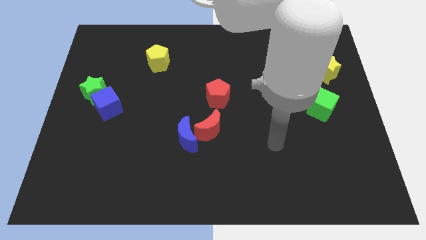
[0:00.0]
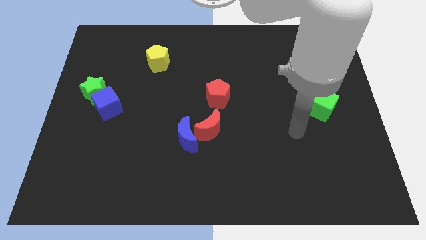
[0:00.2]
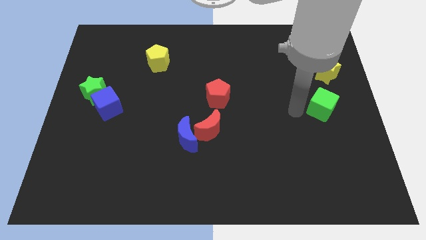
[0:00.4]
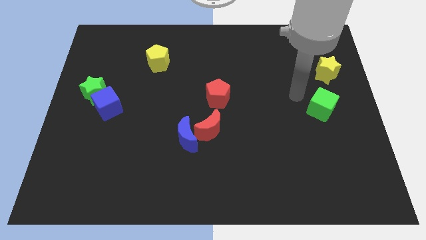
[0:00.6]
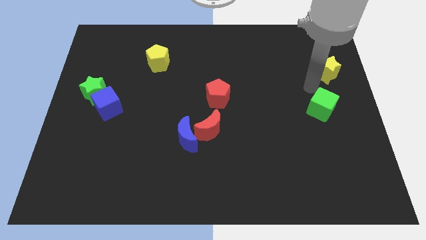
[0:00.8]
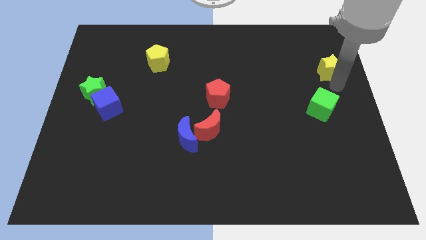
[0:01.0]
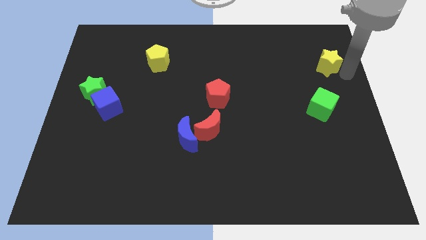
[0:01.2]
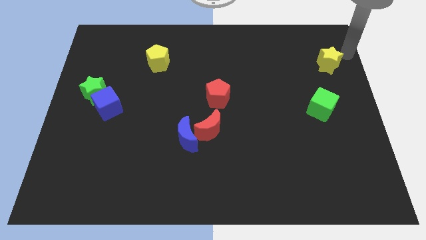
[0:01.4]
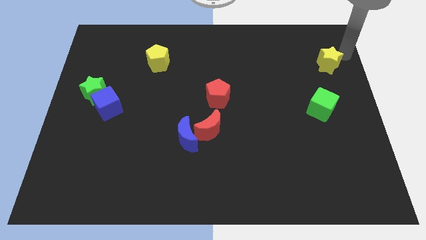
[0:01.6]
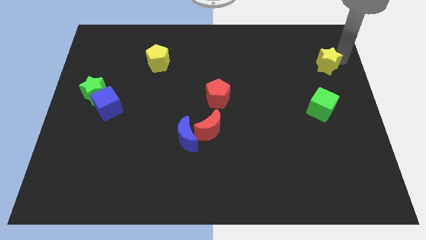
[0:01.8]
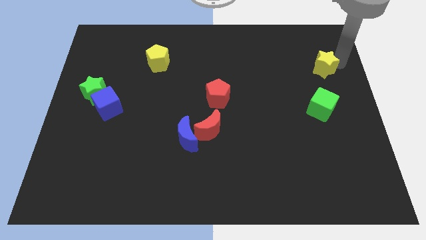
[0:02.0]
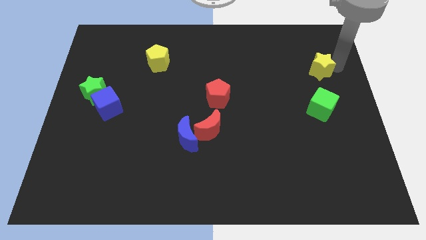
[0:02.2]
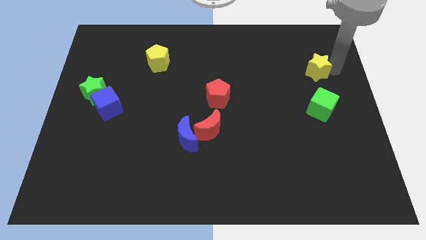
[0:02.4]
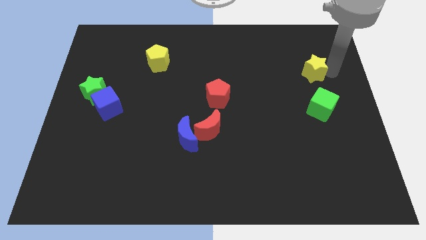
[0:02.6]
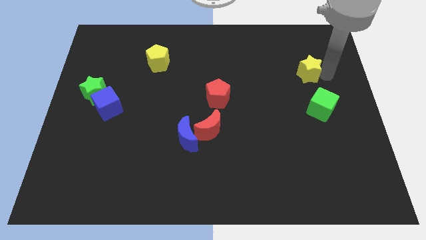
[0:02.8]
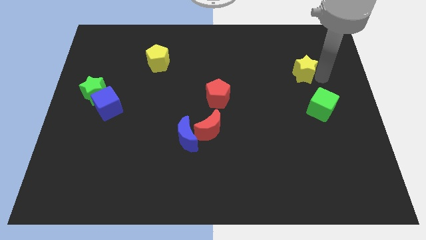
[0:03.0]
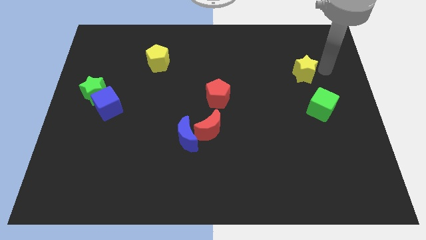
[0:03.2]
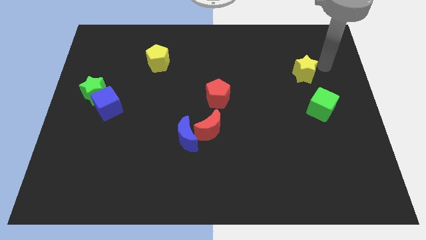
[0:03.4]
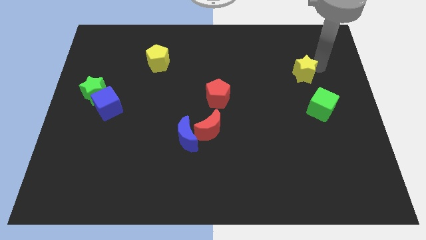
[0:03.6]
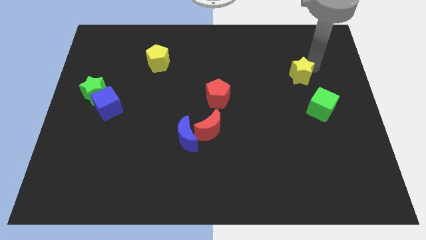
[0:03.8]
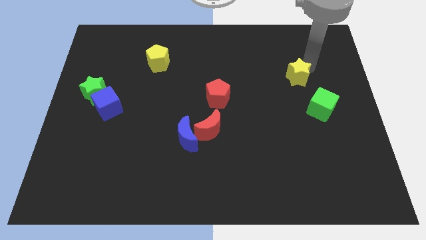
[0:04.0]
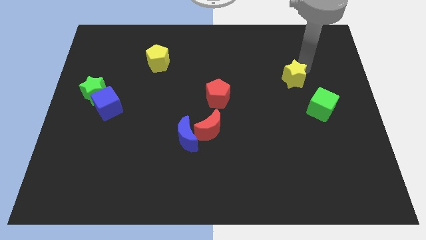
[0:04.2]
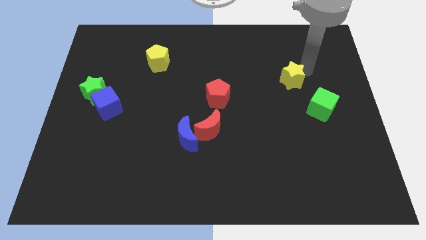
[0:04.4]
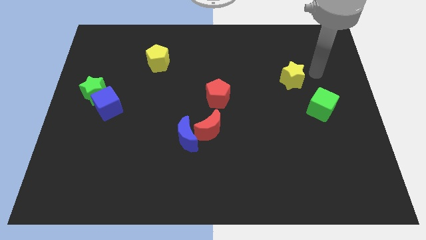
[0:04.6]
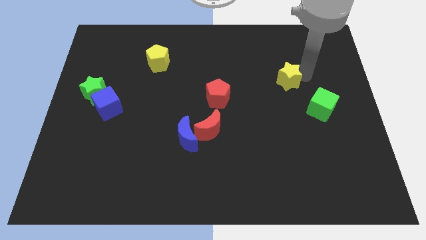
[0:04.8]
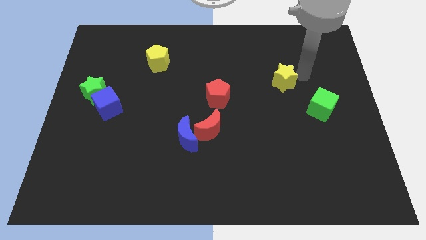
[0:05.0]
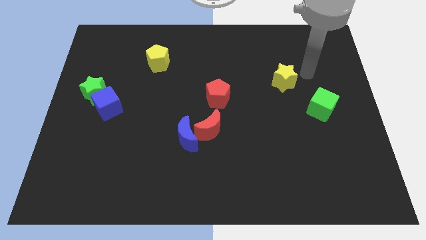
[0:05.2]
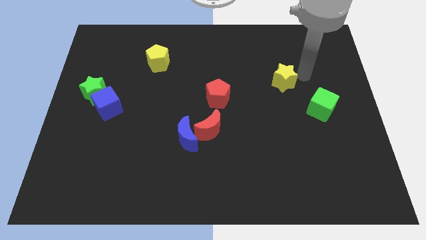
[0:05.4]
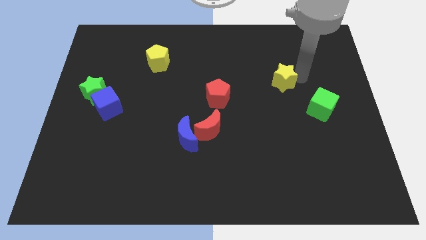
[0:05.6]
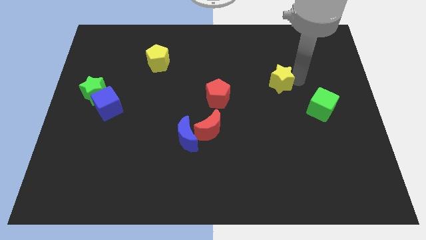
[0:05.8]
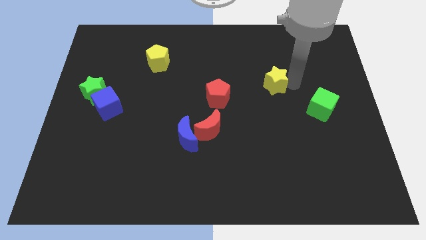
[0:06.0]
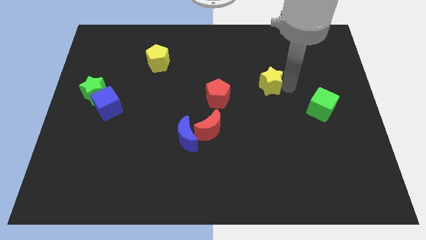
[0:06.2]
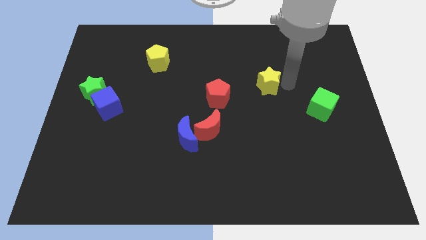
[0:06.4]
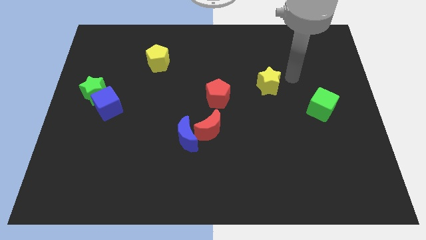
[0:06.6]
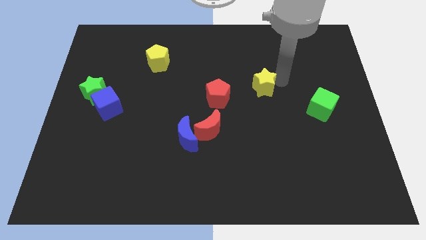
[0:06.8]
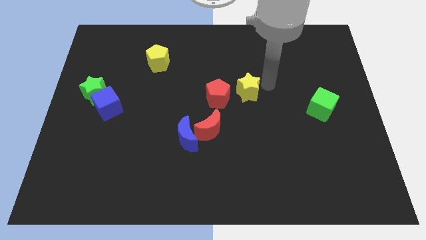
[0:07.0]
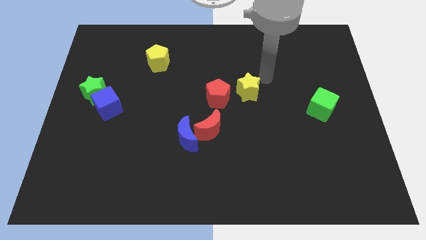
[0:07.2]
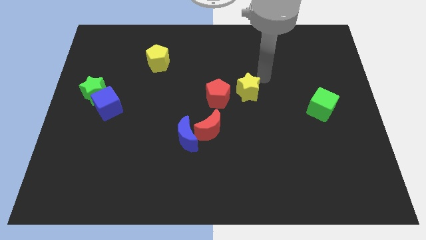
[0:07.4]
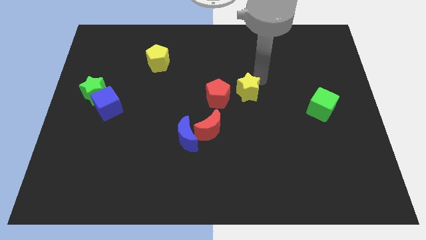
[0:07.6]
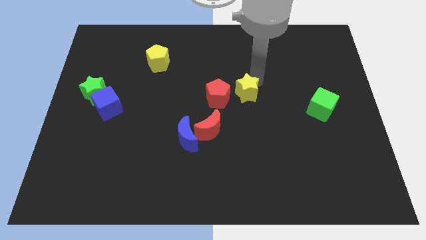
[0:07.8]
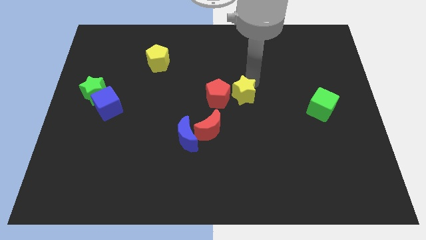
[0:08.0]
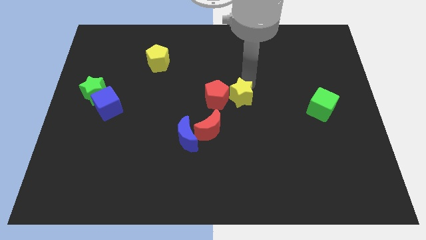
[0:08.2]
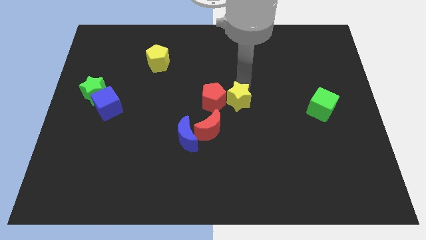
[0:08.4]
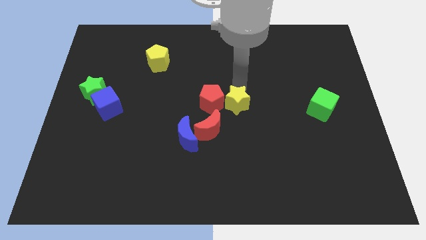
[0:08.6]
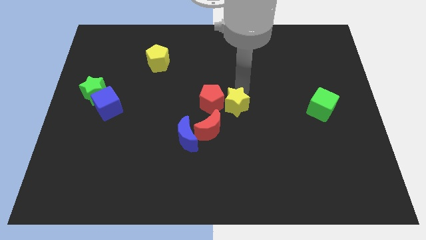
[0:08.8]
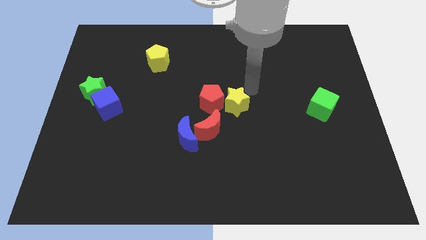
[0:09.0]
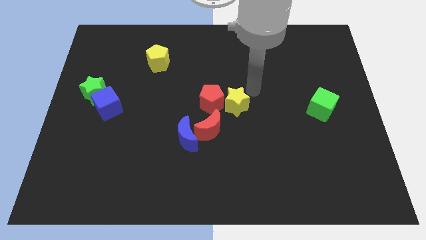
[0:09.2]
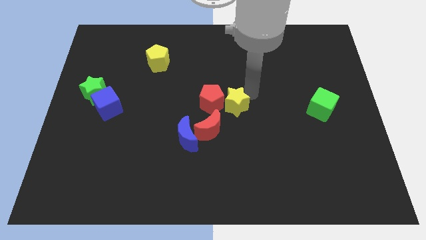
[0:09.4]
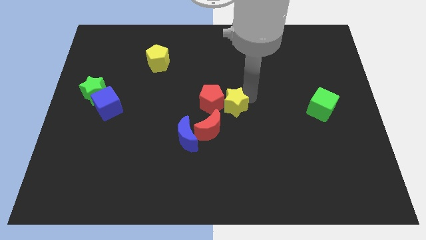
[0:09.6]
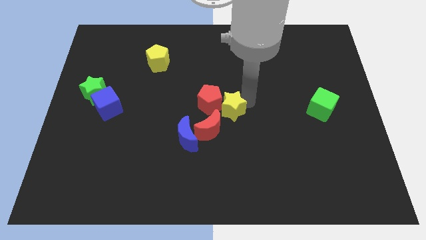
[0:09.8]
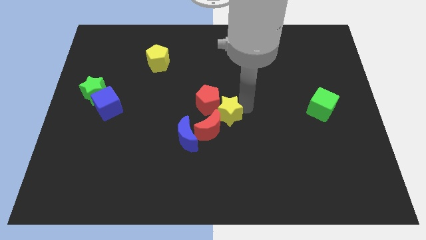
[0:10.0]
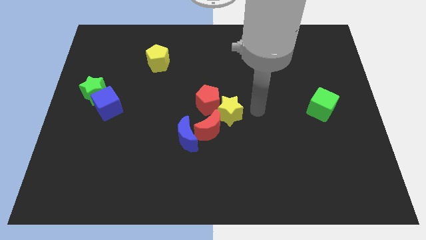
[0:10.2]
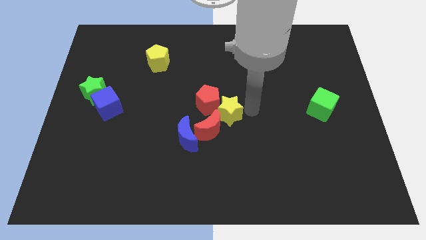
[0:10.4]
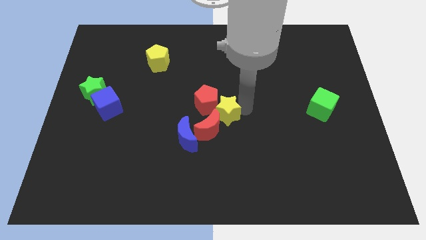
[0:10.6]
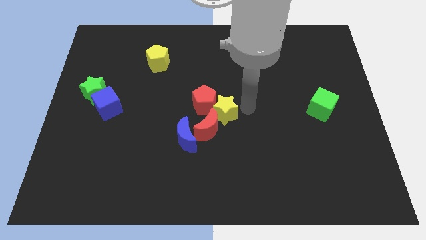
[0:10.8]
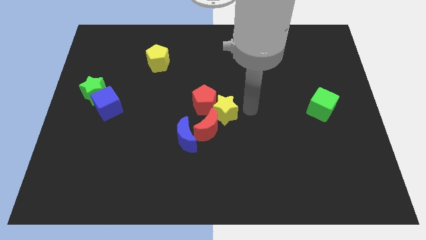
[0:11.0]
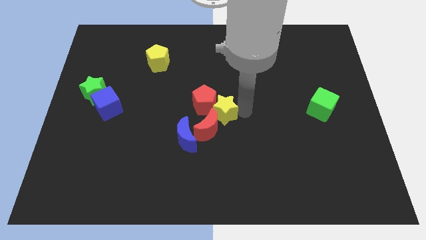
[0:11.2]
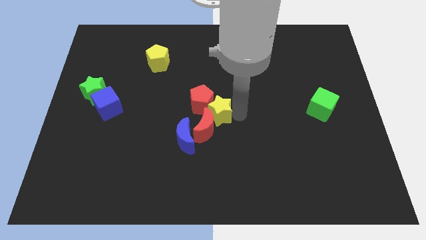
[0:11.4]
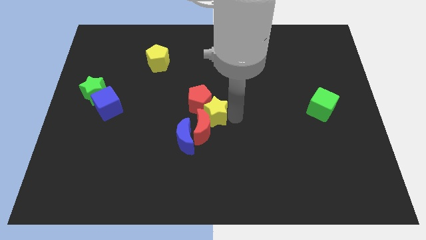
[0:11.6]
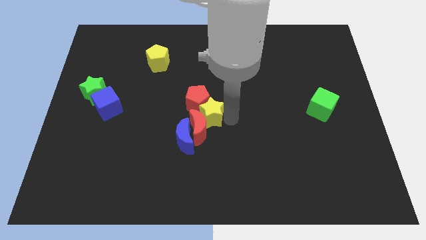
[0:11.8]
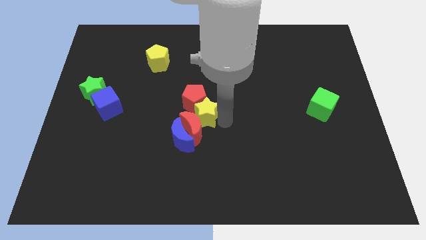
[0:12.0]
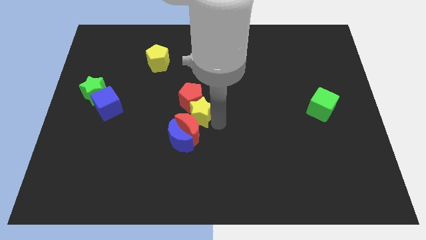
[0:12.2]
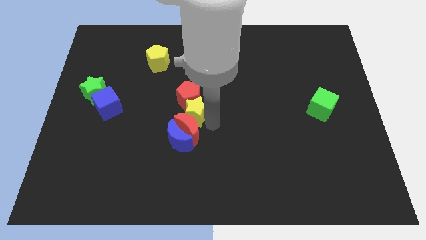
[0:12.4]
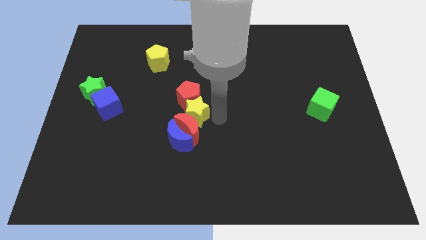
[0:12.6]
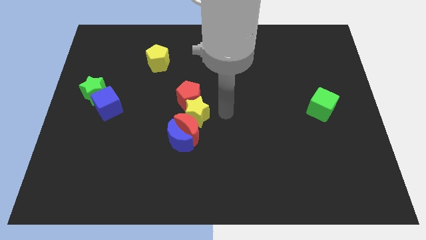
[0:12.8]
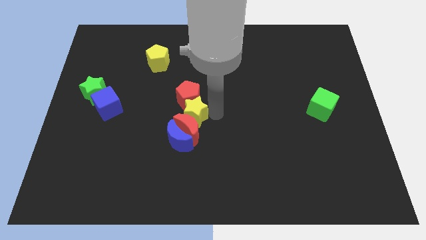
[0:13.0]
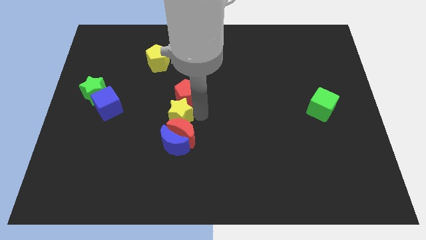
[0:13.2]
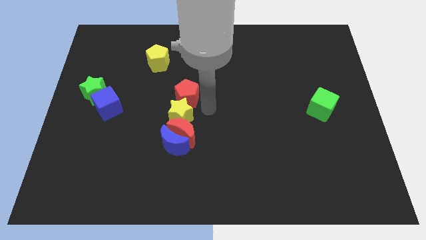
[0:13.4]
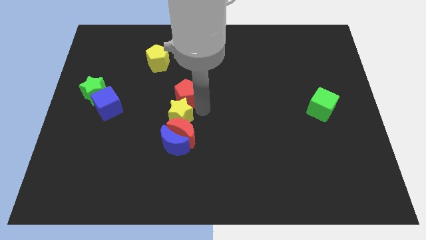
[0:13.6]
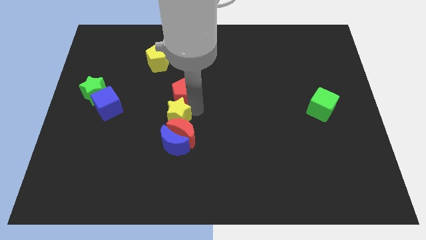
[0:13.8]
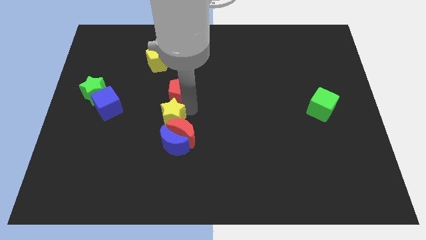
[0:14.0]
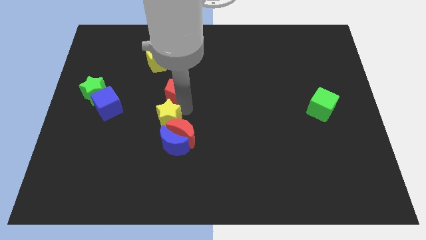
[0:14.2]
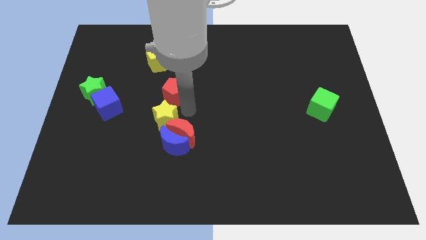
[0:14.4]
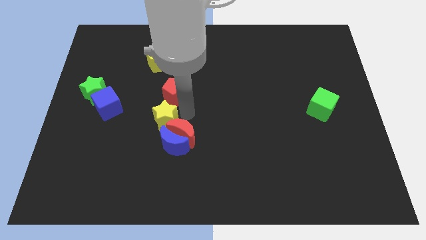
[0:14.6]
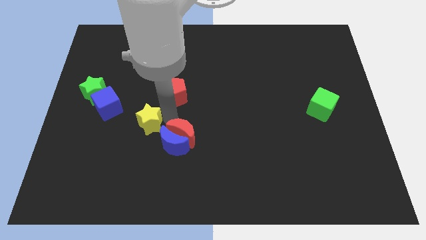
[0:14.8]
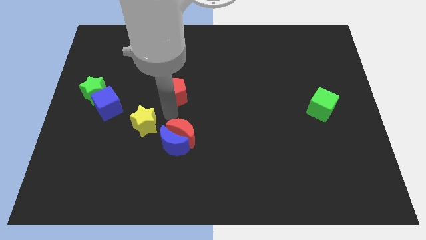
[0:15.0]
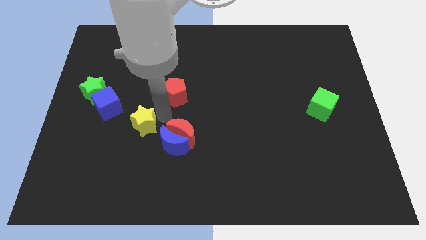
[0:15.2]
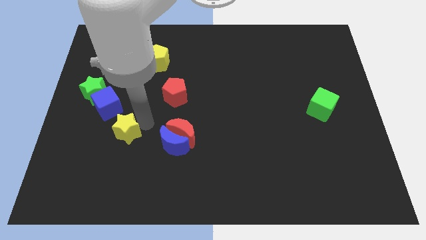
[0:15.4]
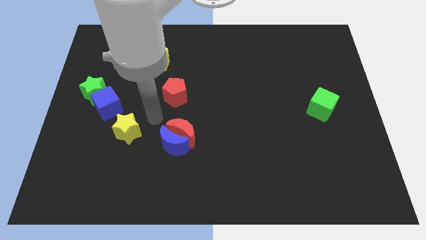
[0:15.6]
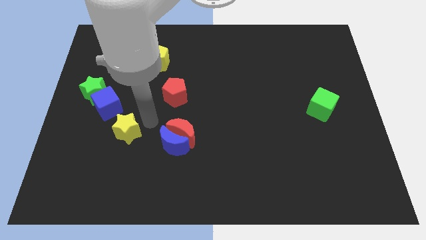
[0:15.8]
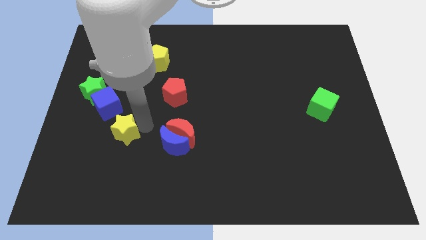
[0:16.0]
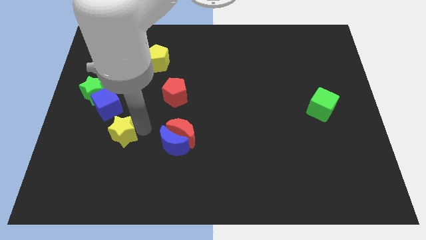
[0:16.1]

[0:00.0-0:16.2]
move the yellow star to the bottom side of the blue cube
